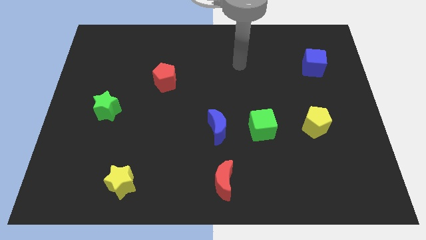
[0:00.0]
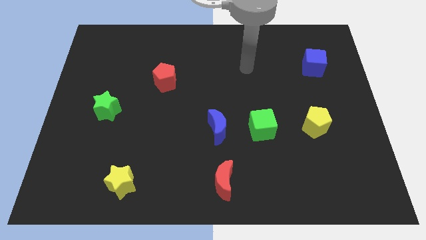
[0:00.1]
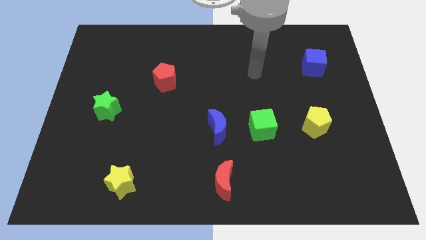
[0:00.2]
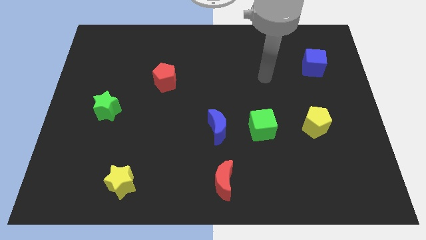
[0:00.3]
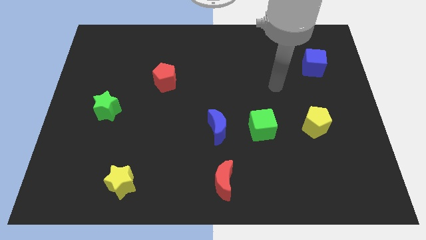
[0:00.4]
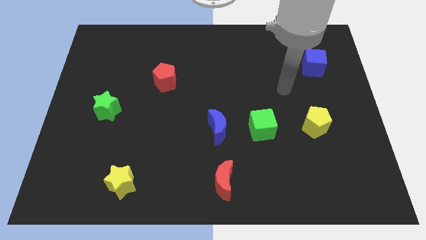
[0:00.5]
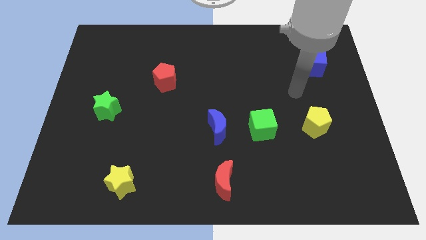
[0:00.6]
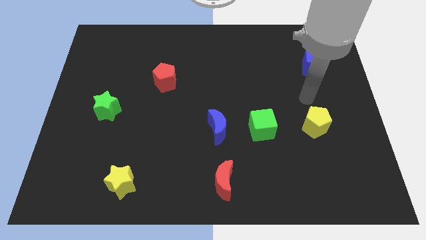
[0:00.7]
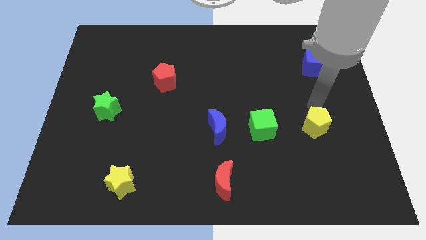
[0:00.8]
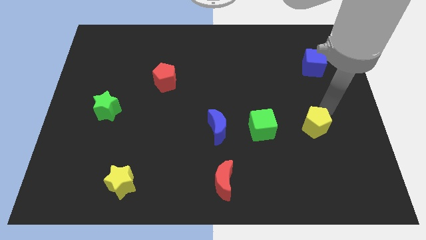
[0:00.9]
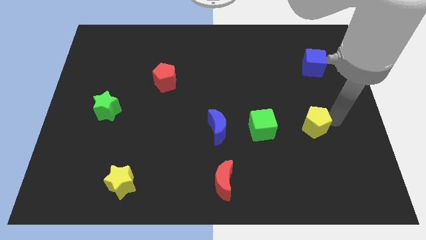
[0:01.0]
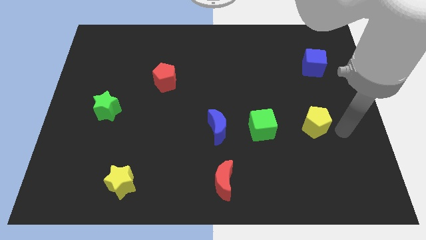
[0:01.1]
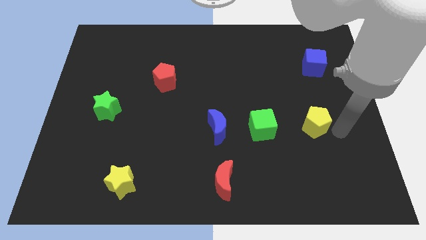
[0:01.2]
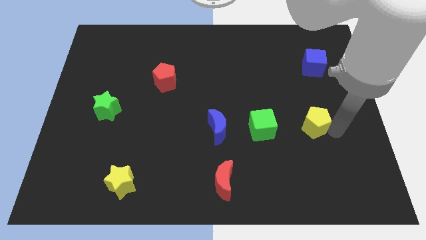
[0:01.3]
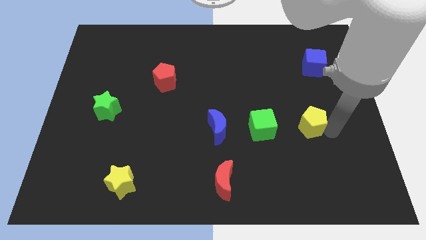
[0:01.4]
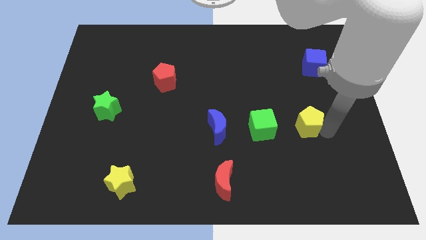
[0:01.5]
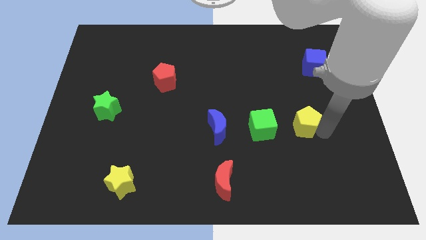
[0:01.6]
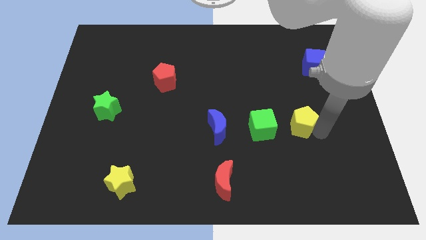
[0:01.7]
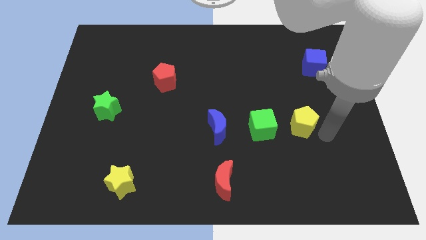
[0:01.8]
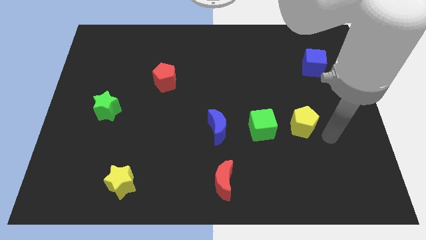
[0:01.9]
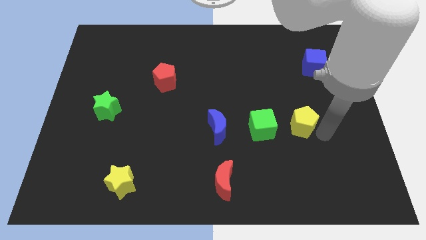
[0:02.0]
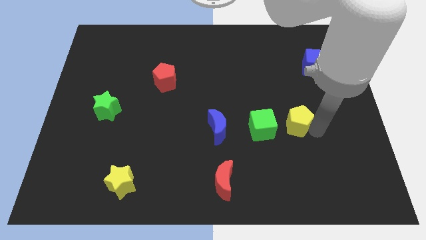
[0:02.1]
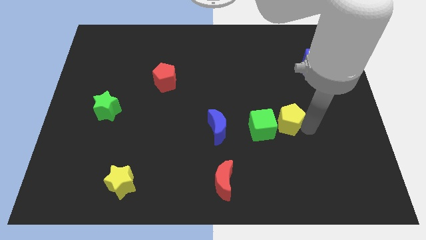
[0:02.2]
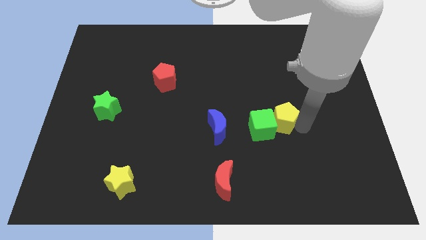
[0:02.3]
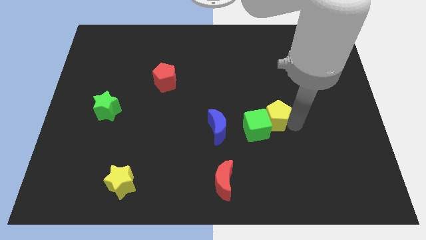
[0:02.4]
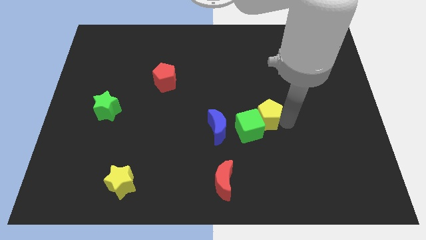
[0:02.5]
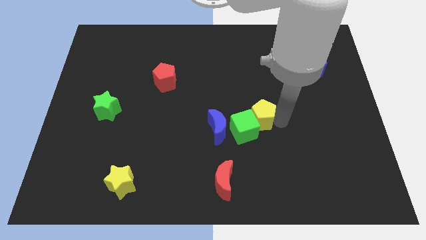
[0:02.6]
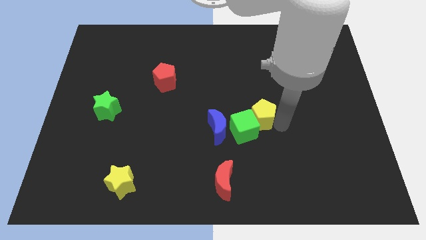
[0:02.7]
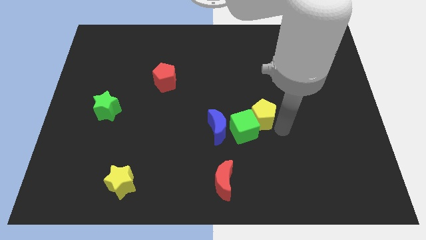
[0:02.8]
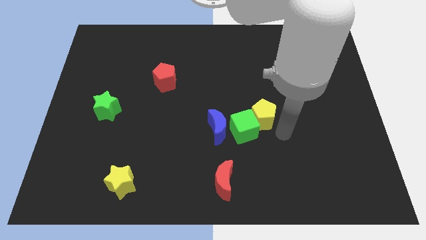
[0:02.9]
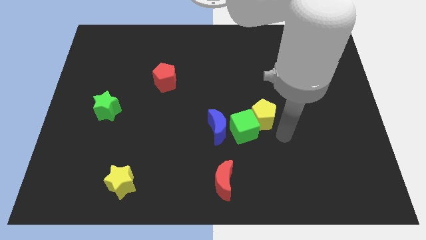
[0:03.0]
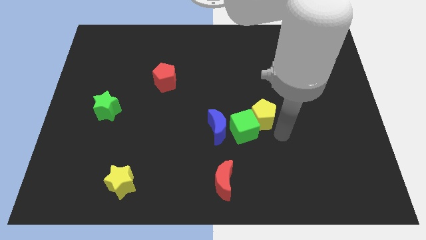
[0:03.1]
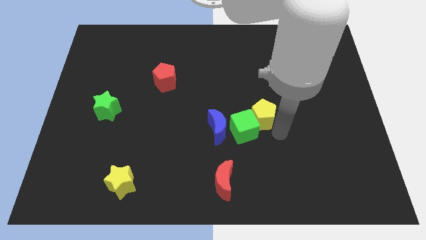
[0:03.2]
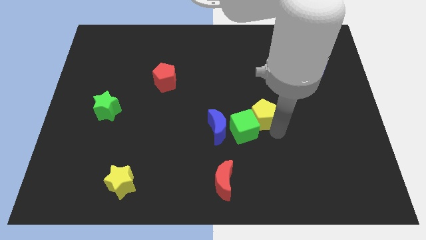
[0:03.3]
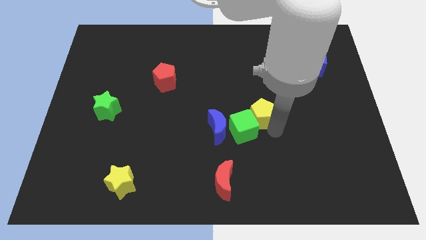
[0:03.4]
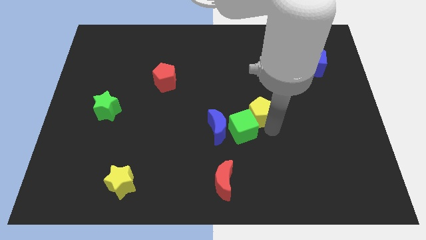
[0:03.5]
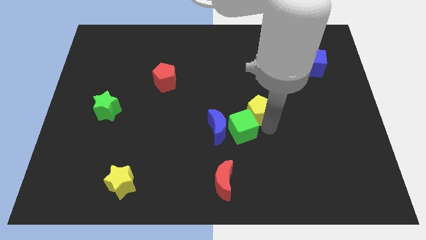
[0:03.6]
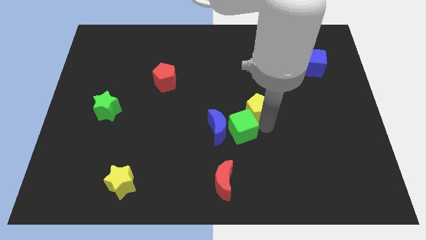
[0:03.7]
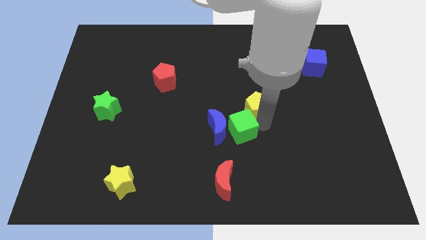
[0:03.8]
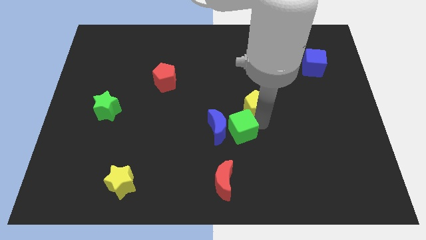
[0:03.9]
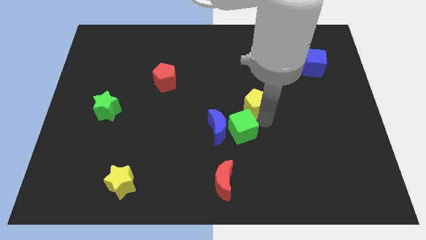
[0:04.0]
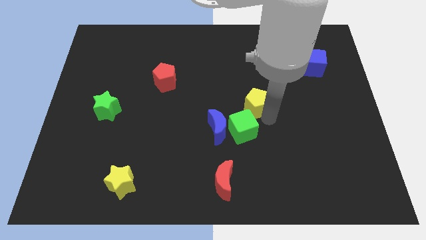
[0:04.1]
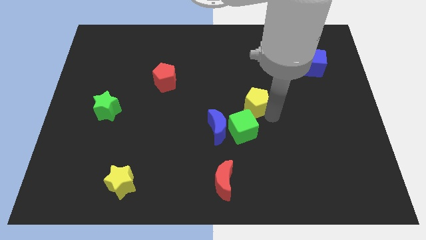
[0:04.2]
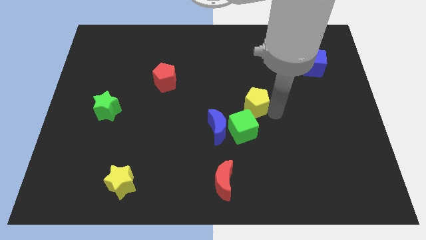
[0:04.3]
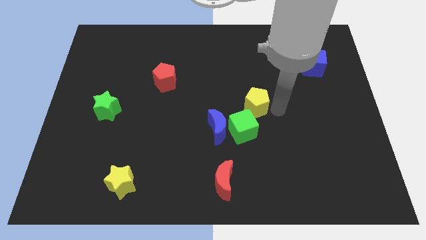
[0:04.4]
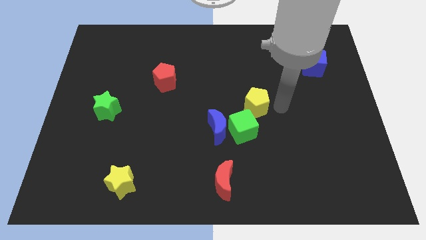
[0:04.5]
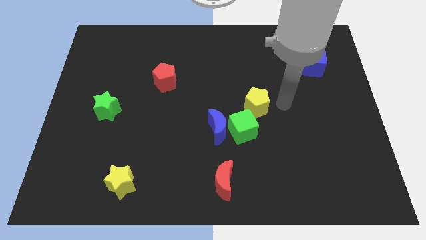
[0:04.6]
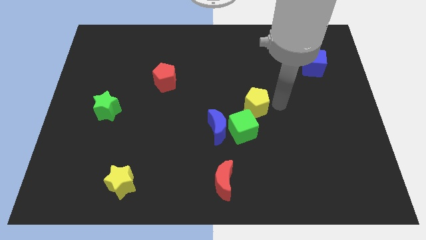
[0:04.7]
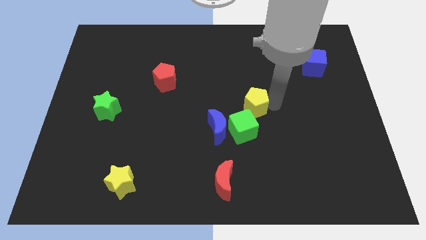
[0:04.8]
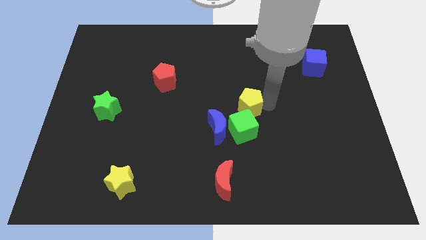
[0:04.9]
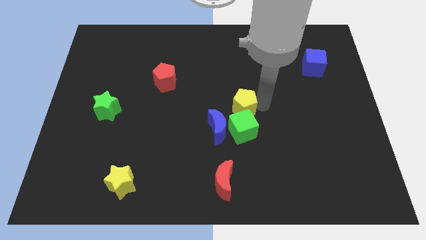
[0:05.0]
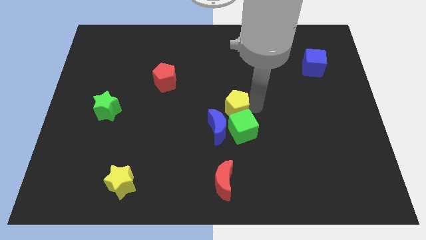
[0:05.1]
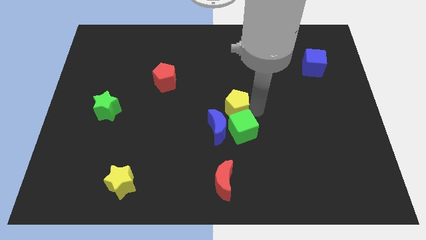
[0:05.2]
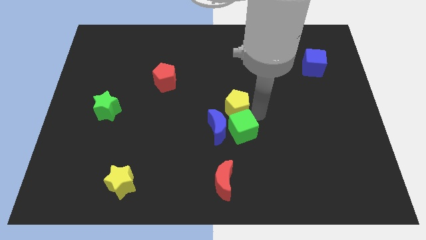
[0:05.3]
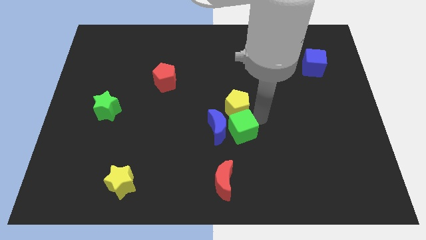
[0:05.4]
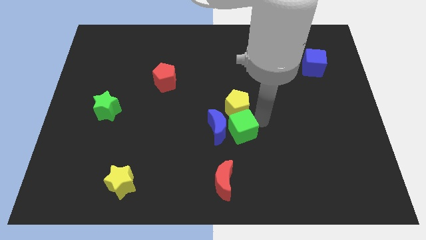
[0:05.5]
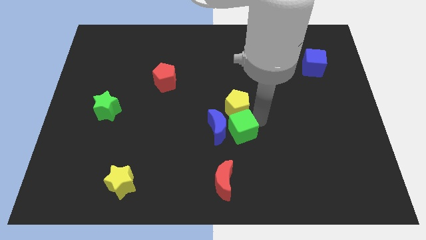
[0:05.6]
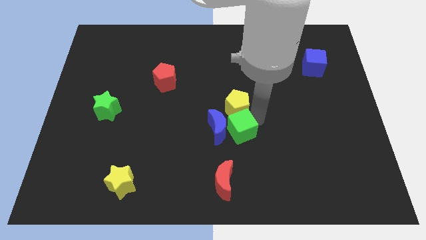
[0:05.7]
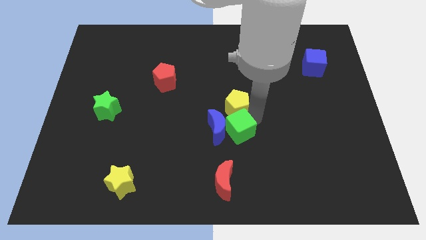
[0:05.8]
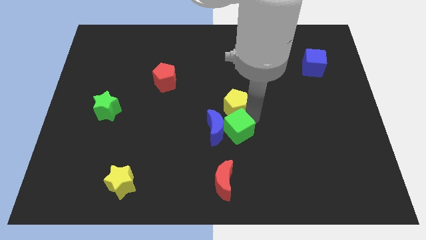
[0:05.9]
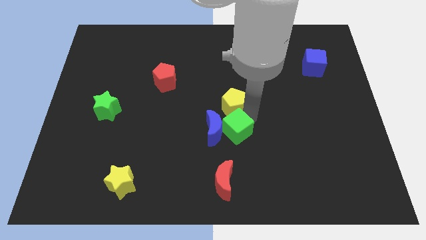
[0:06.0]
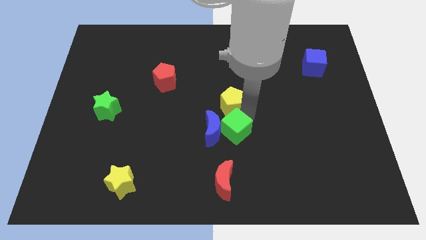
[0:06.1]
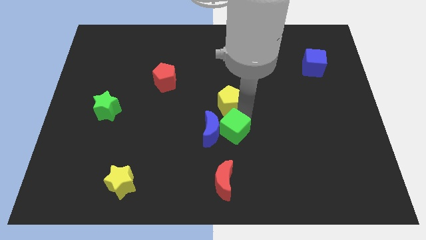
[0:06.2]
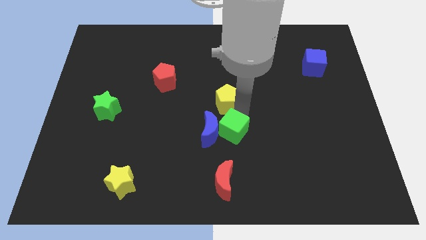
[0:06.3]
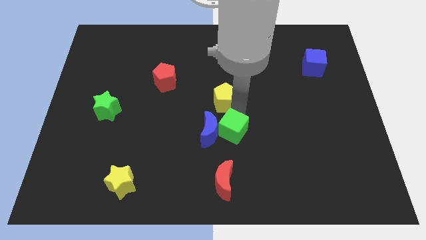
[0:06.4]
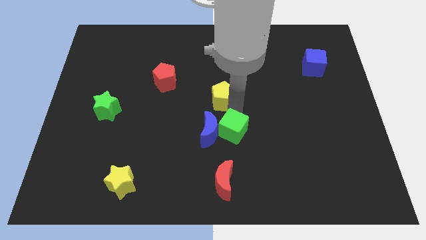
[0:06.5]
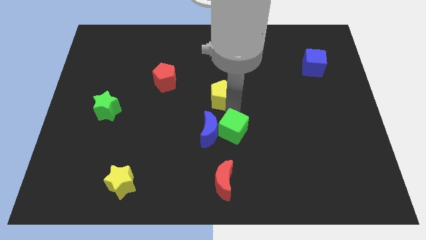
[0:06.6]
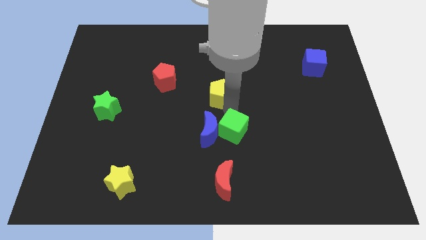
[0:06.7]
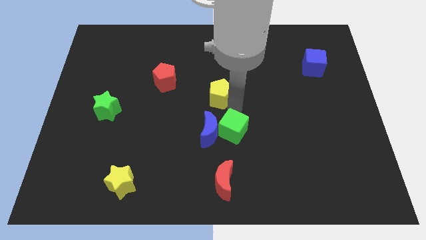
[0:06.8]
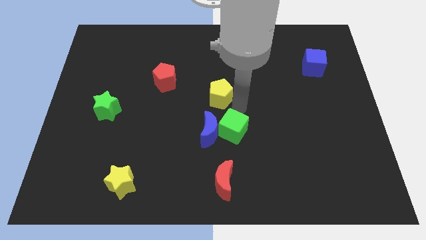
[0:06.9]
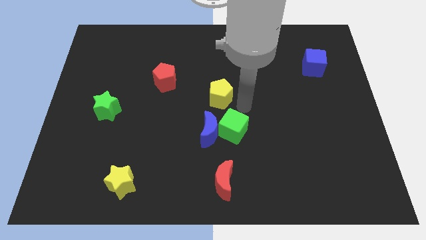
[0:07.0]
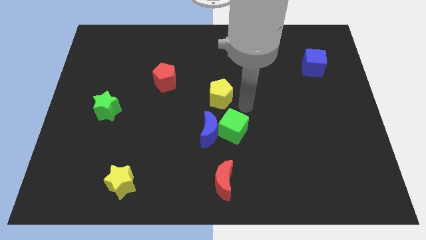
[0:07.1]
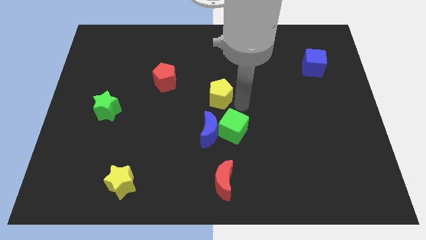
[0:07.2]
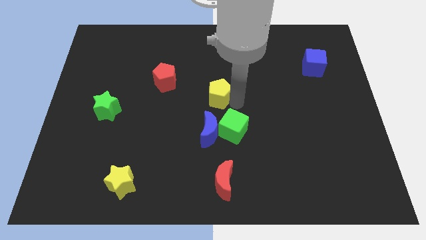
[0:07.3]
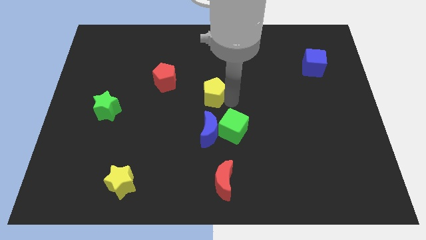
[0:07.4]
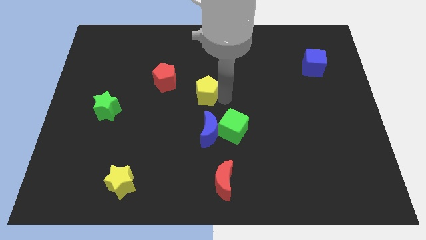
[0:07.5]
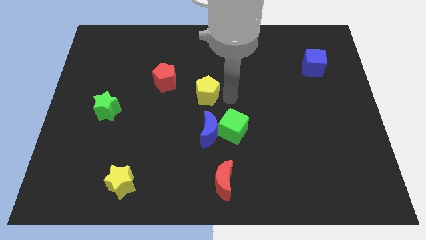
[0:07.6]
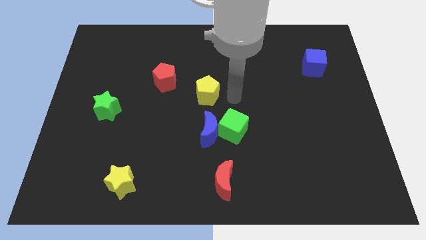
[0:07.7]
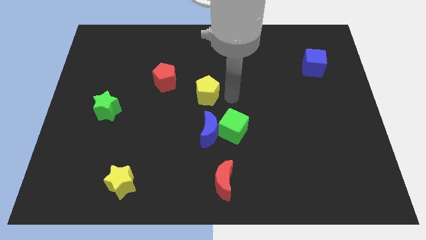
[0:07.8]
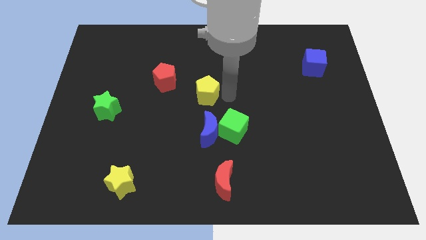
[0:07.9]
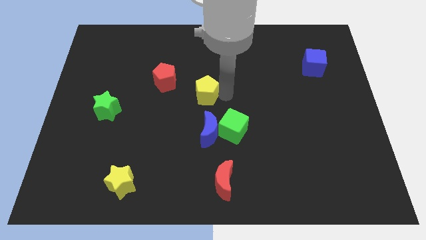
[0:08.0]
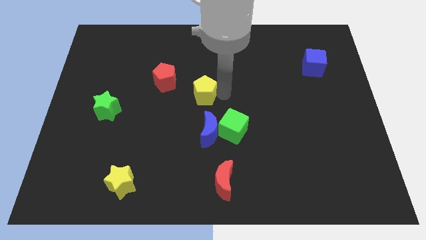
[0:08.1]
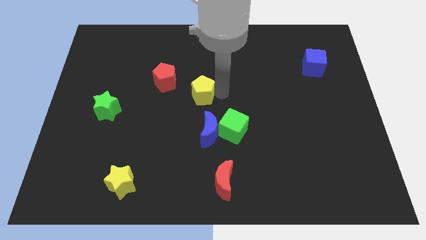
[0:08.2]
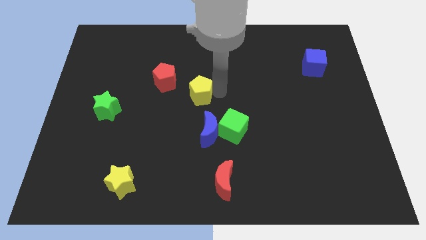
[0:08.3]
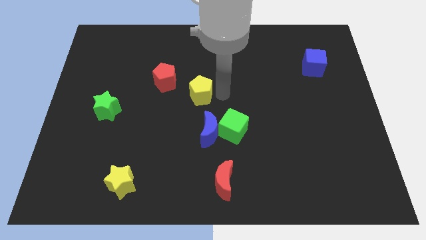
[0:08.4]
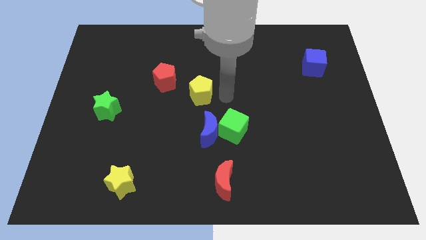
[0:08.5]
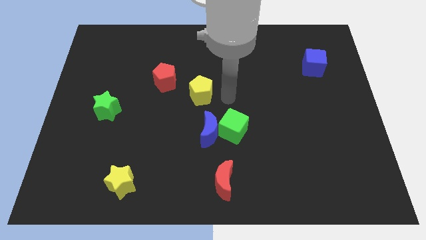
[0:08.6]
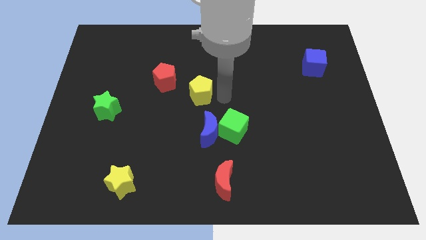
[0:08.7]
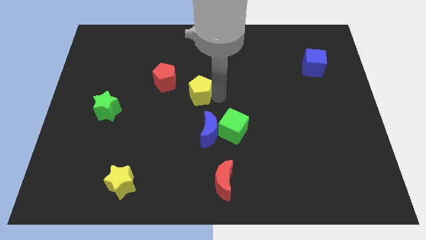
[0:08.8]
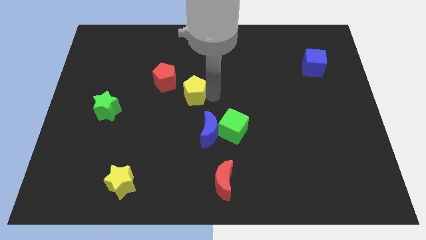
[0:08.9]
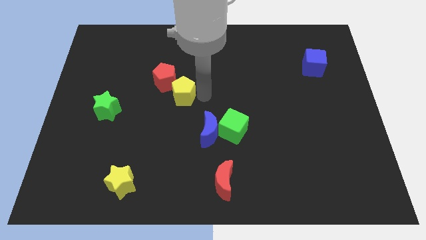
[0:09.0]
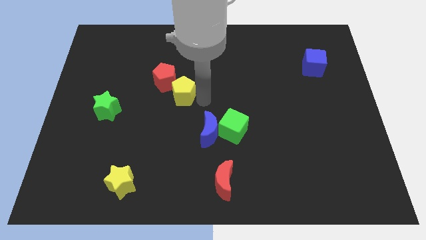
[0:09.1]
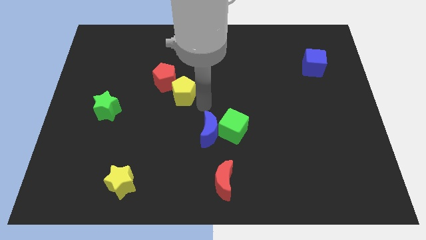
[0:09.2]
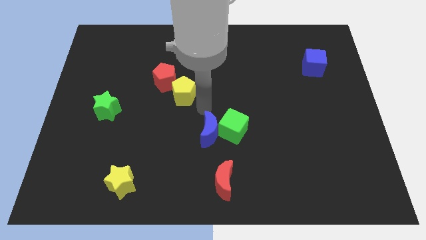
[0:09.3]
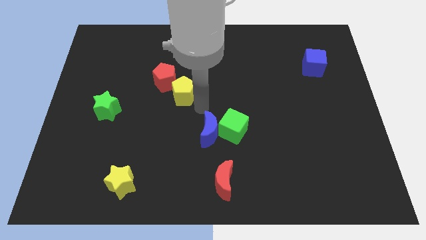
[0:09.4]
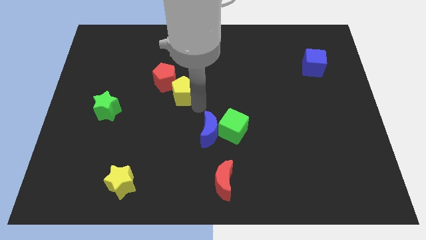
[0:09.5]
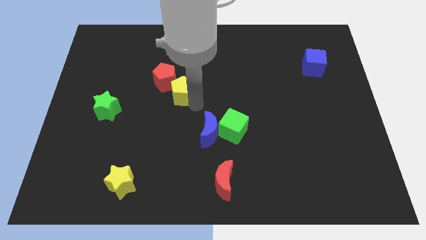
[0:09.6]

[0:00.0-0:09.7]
push the yellow pentagon next to the red pentagon
